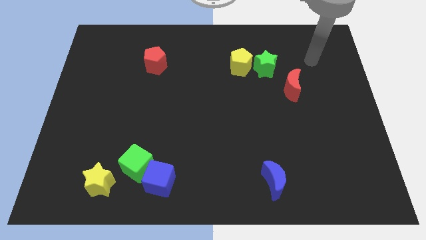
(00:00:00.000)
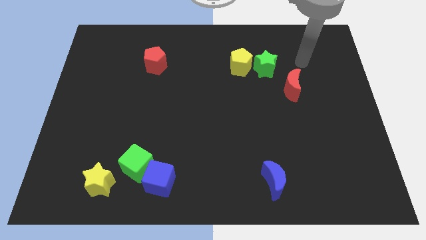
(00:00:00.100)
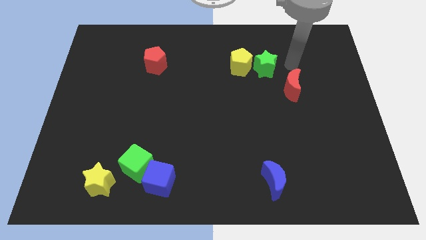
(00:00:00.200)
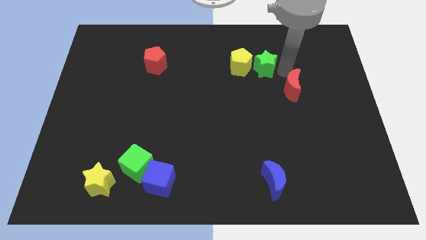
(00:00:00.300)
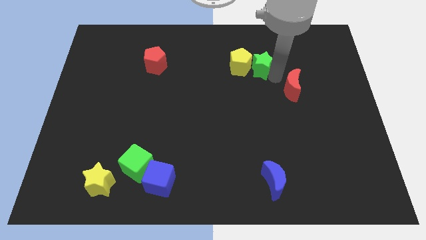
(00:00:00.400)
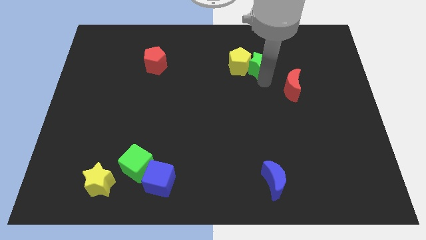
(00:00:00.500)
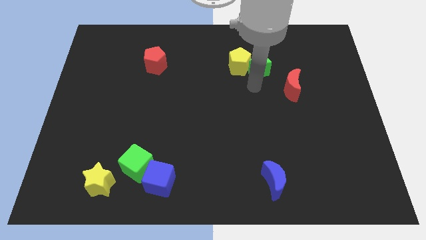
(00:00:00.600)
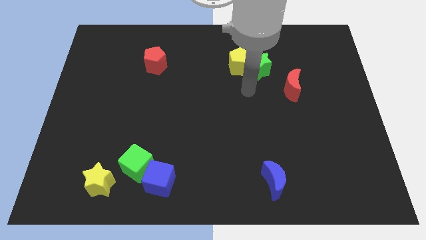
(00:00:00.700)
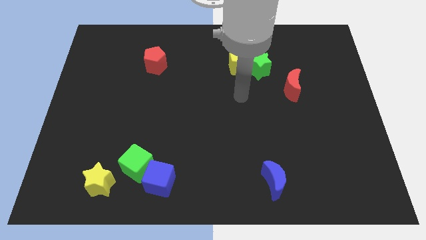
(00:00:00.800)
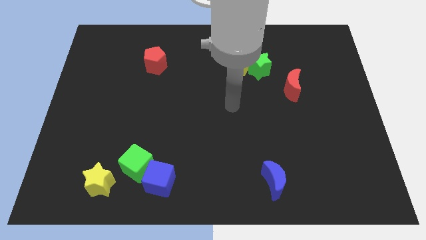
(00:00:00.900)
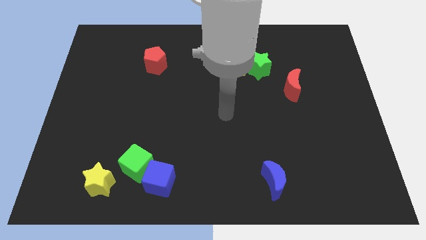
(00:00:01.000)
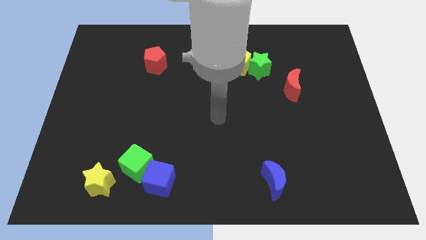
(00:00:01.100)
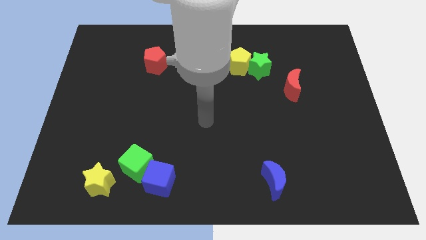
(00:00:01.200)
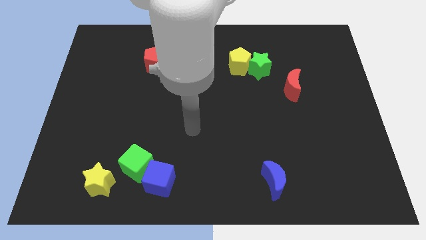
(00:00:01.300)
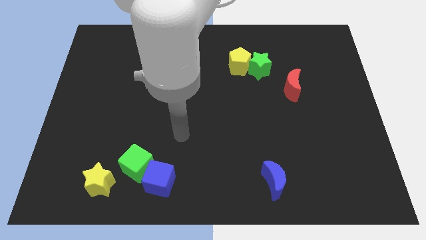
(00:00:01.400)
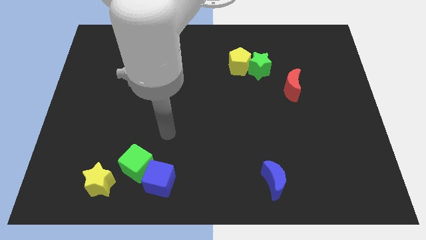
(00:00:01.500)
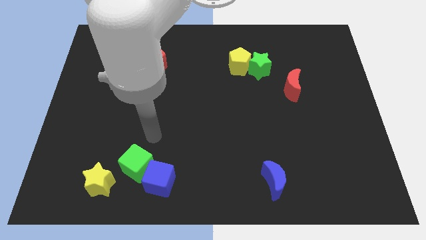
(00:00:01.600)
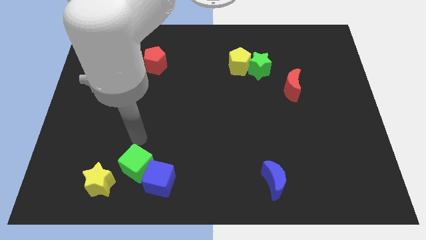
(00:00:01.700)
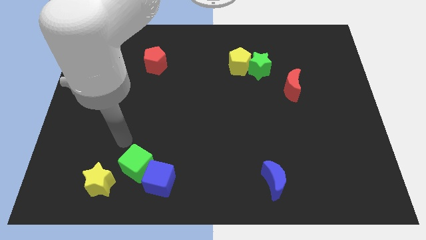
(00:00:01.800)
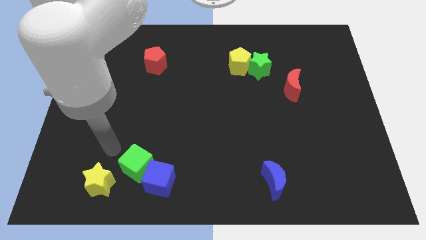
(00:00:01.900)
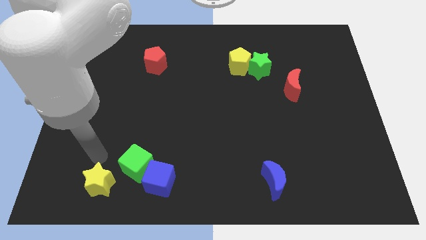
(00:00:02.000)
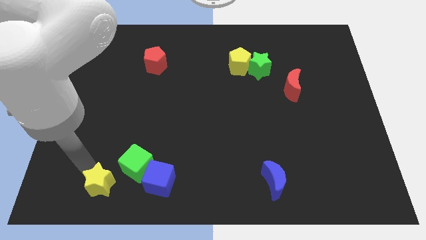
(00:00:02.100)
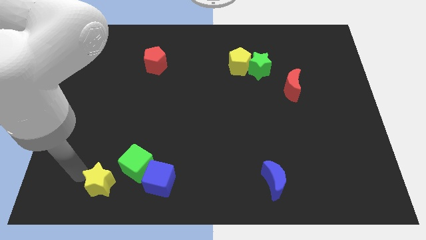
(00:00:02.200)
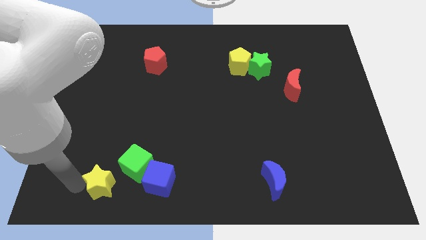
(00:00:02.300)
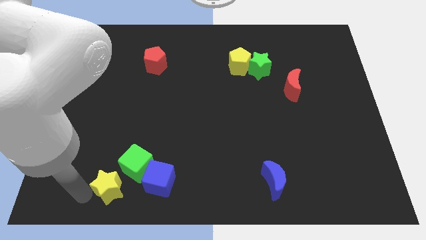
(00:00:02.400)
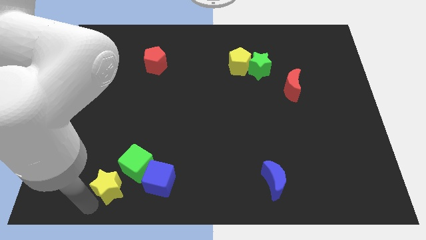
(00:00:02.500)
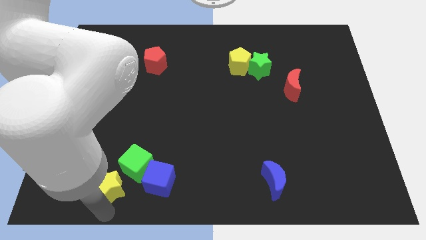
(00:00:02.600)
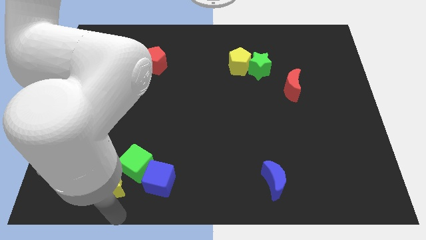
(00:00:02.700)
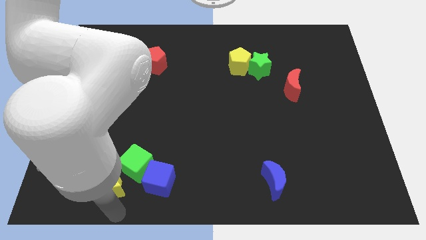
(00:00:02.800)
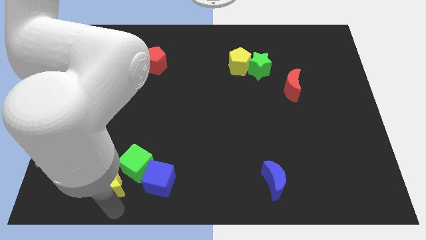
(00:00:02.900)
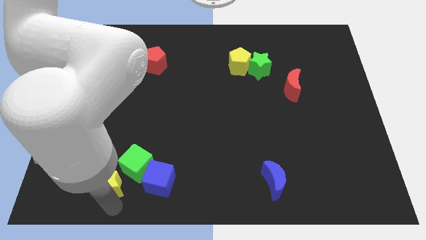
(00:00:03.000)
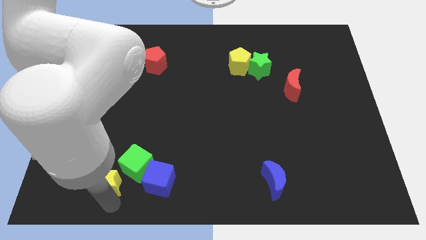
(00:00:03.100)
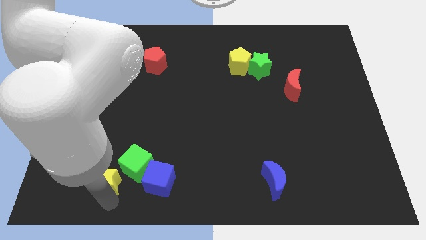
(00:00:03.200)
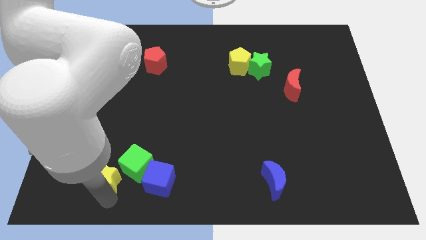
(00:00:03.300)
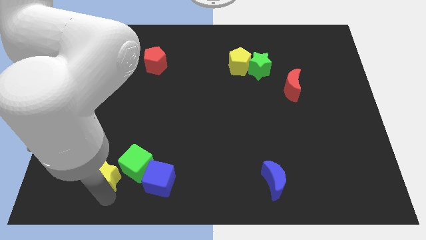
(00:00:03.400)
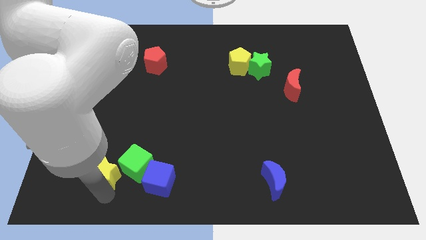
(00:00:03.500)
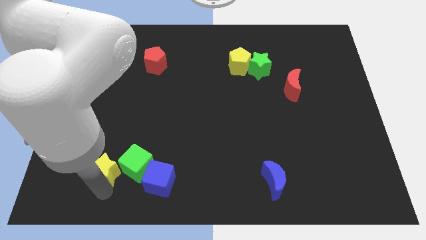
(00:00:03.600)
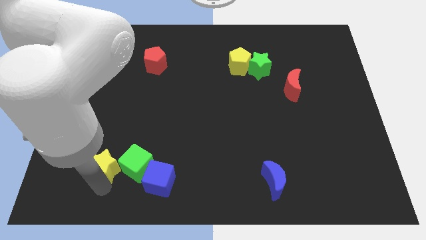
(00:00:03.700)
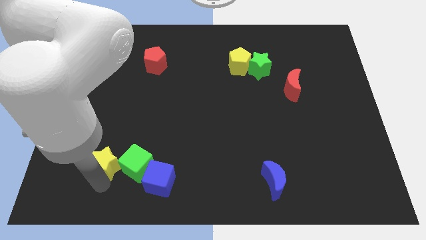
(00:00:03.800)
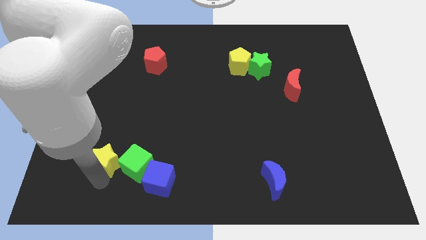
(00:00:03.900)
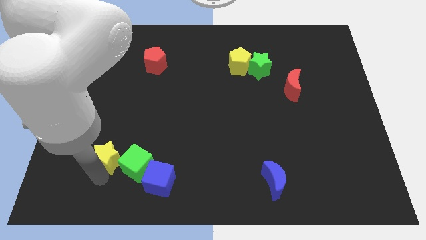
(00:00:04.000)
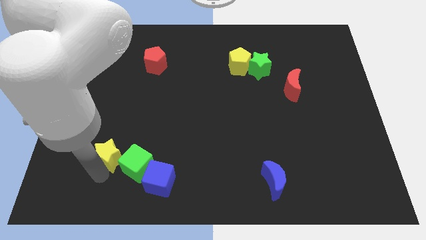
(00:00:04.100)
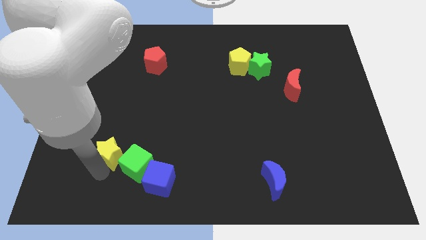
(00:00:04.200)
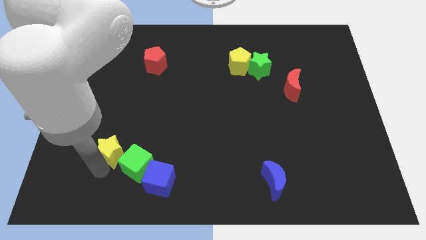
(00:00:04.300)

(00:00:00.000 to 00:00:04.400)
push the yellow star slightly up

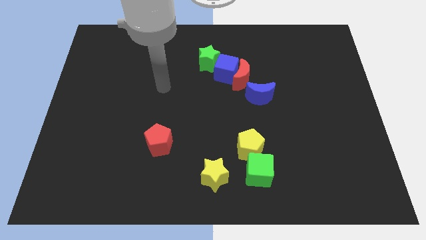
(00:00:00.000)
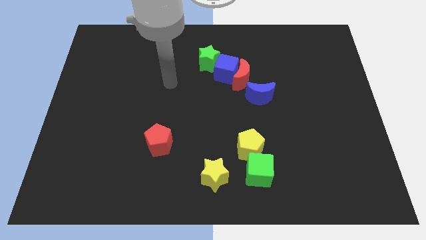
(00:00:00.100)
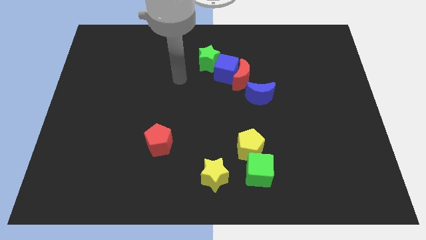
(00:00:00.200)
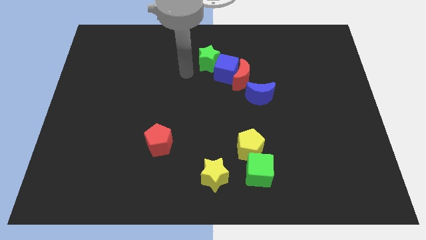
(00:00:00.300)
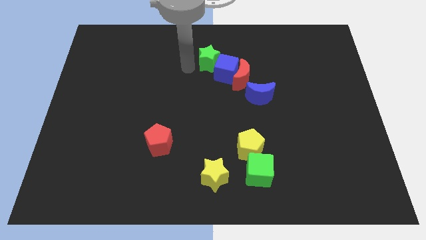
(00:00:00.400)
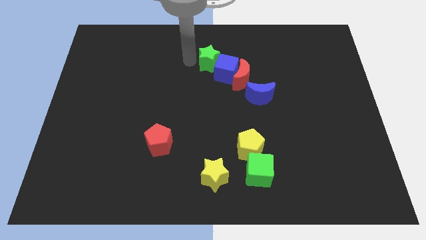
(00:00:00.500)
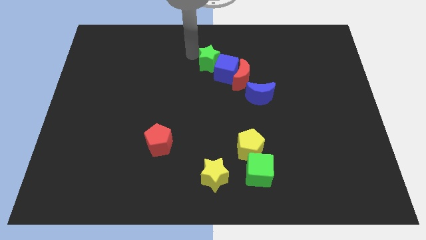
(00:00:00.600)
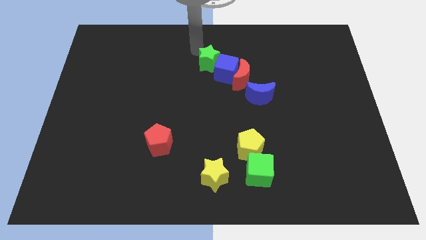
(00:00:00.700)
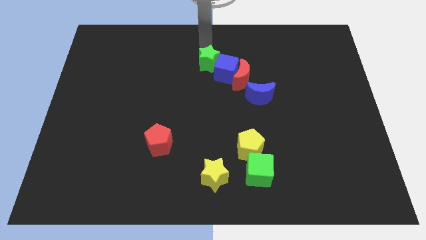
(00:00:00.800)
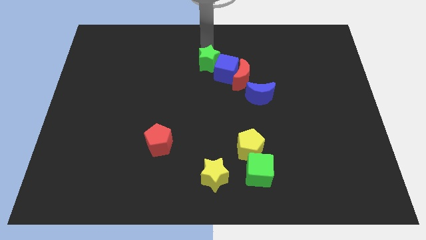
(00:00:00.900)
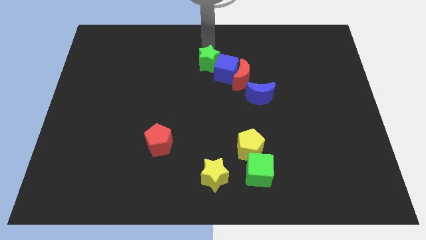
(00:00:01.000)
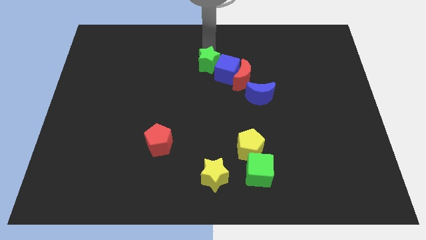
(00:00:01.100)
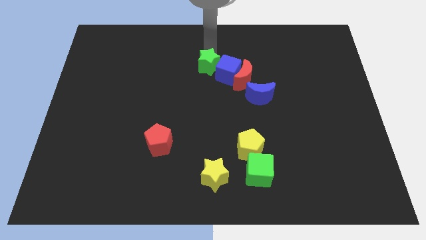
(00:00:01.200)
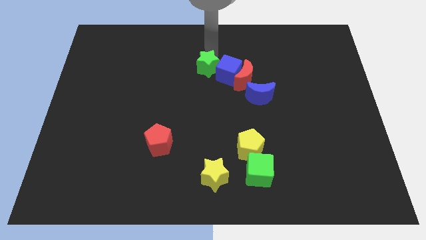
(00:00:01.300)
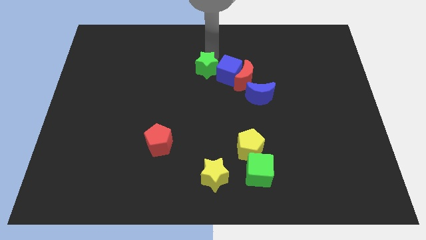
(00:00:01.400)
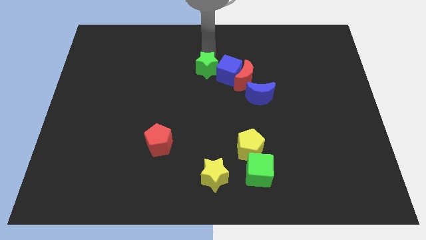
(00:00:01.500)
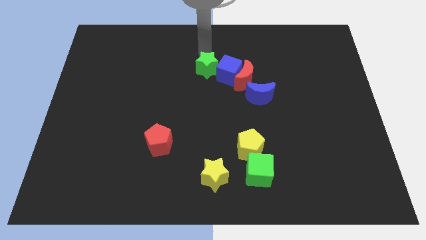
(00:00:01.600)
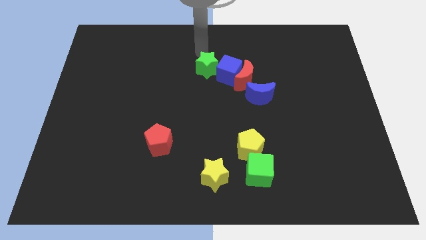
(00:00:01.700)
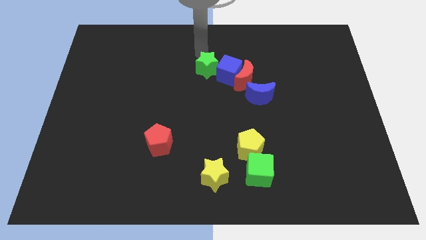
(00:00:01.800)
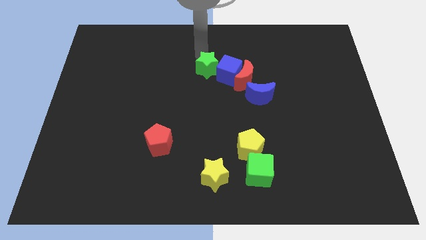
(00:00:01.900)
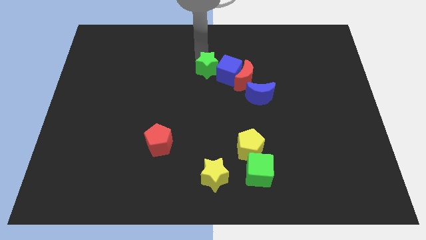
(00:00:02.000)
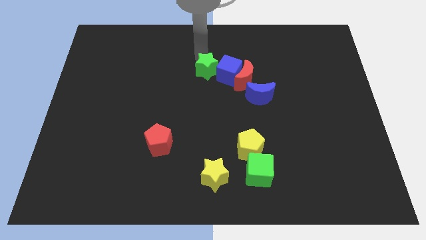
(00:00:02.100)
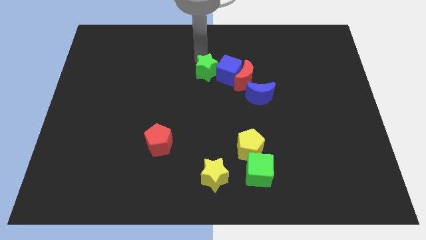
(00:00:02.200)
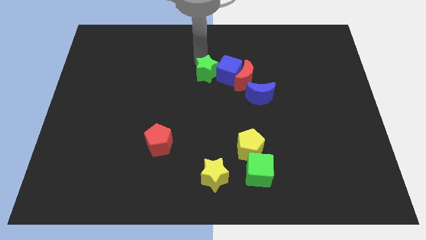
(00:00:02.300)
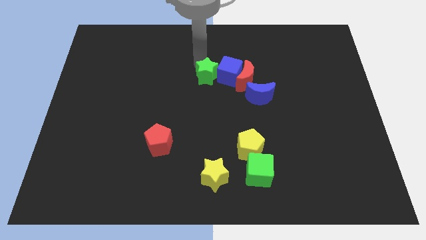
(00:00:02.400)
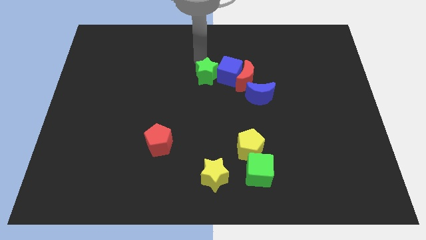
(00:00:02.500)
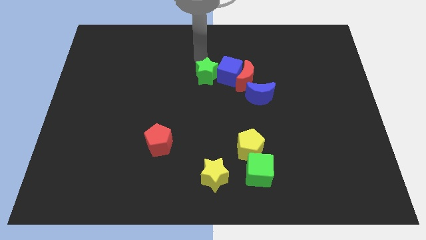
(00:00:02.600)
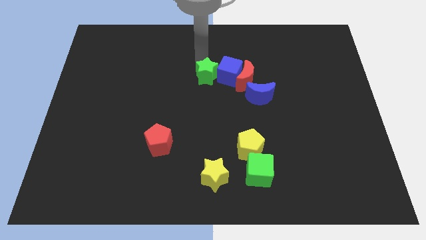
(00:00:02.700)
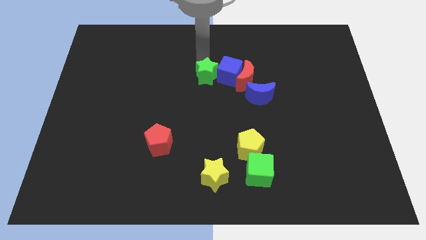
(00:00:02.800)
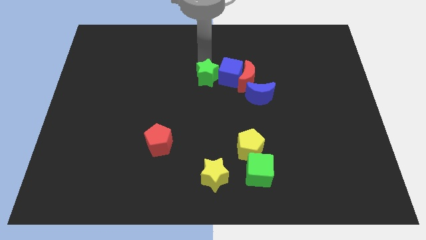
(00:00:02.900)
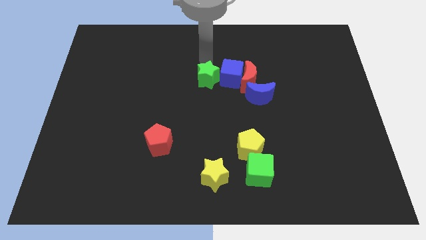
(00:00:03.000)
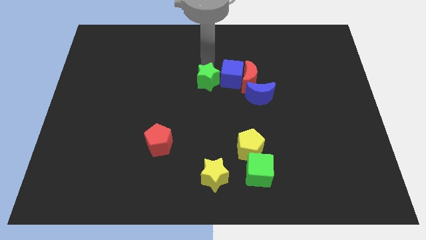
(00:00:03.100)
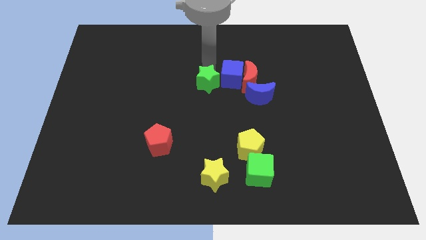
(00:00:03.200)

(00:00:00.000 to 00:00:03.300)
push the green star down a little bit

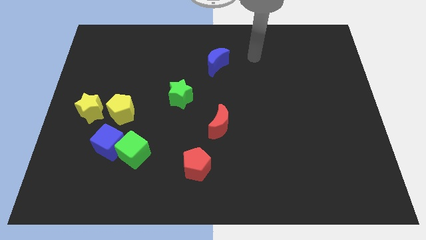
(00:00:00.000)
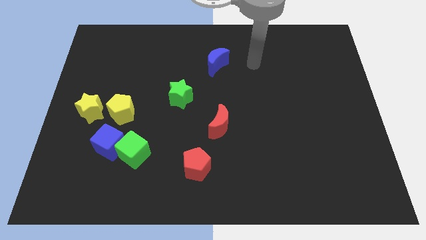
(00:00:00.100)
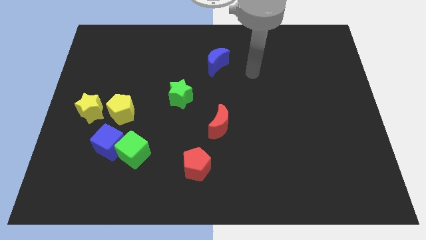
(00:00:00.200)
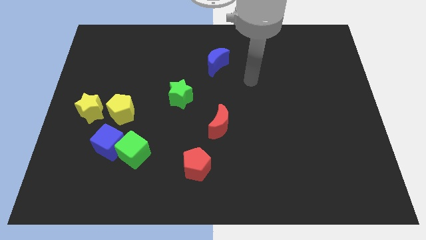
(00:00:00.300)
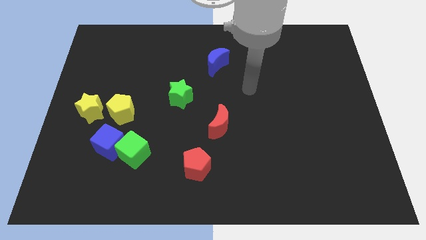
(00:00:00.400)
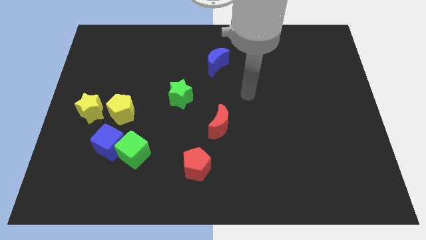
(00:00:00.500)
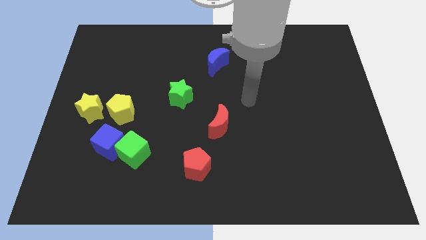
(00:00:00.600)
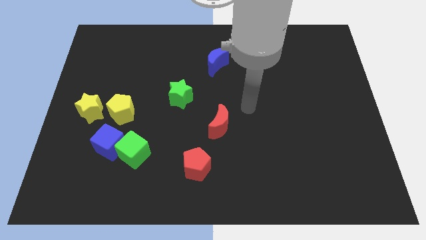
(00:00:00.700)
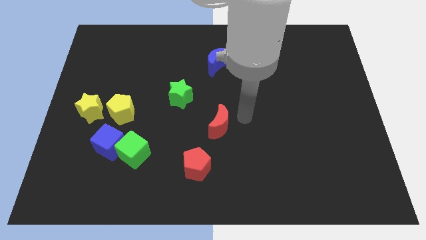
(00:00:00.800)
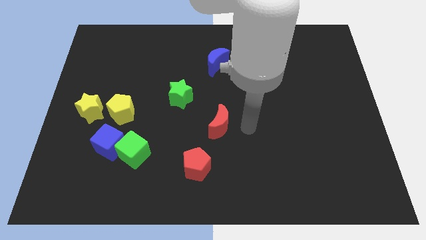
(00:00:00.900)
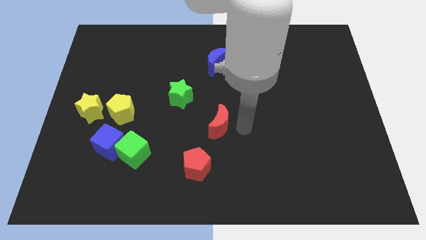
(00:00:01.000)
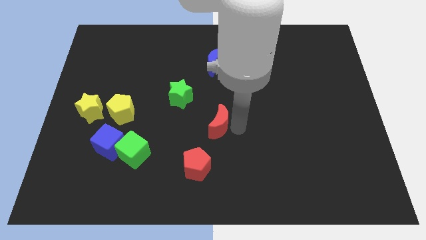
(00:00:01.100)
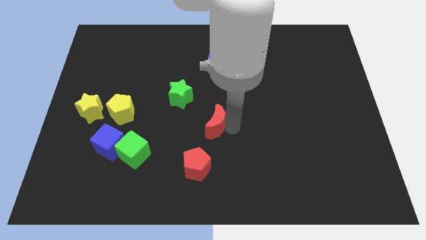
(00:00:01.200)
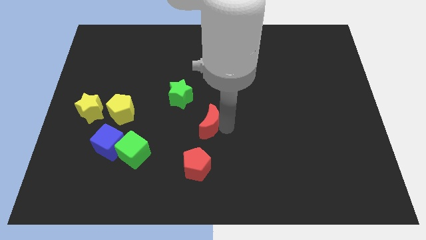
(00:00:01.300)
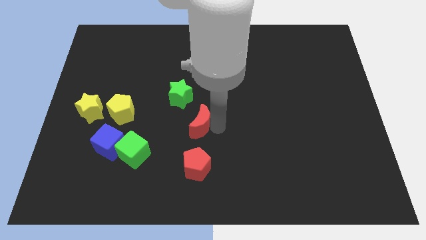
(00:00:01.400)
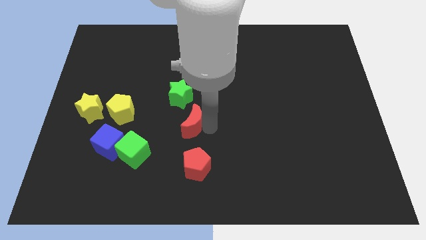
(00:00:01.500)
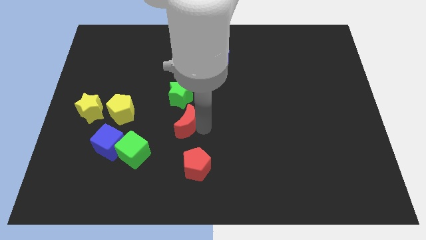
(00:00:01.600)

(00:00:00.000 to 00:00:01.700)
push the red moon a little bit to the left
